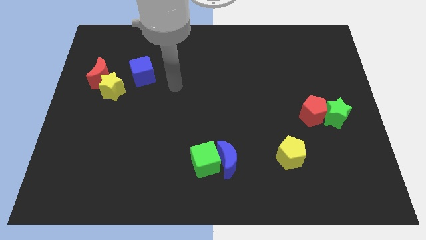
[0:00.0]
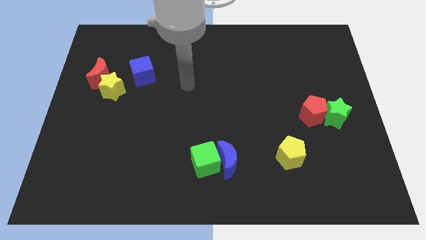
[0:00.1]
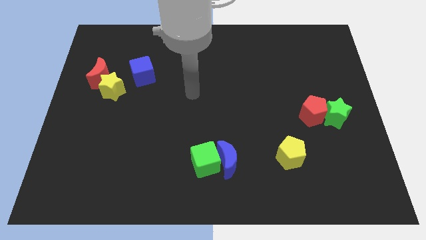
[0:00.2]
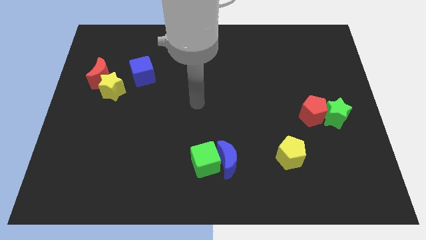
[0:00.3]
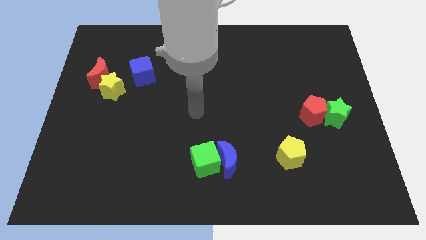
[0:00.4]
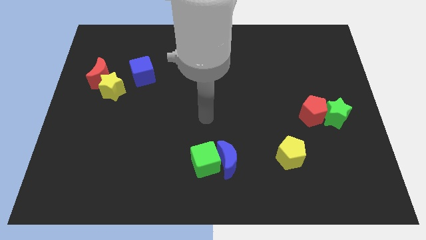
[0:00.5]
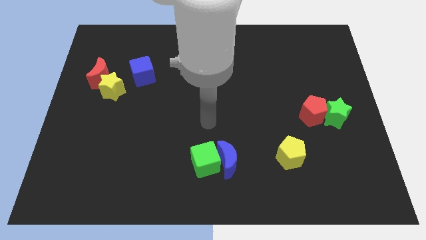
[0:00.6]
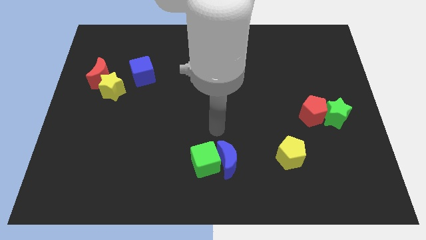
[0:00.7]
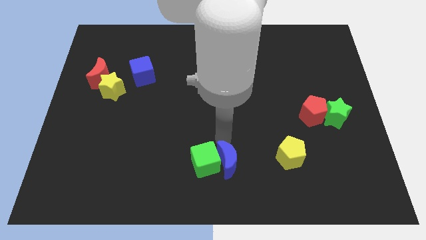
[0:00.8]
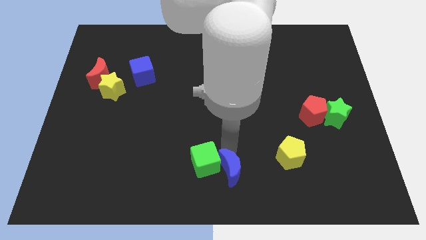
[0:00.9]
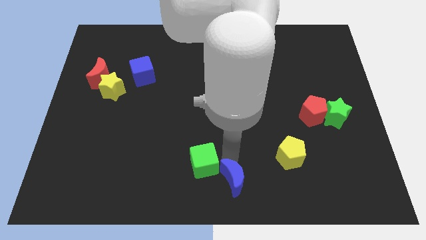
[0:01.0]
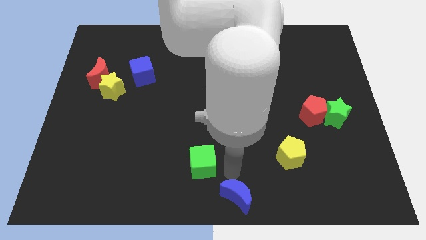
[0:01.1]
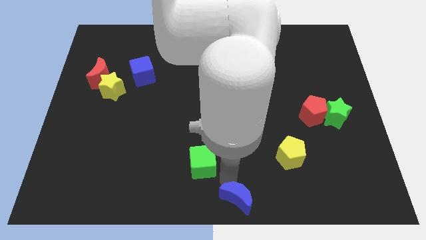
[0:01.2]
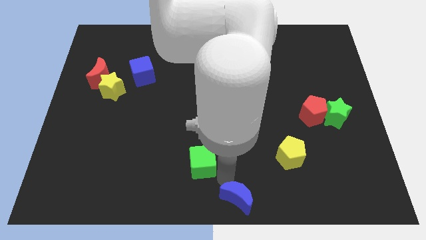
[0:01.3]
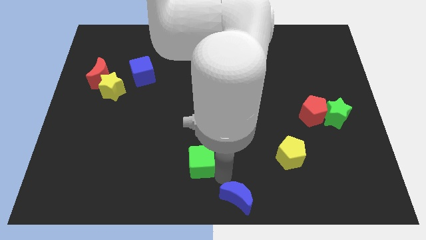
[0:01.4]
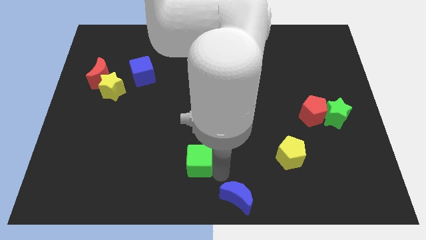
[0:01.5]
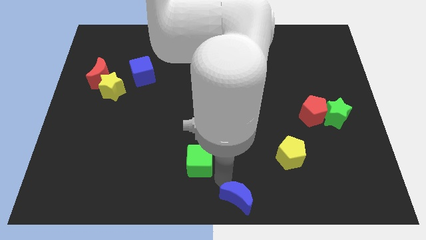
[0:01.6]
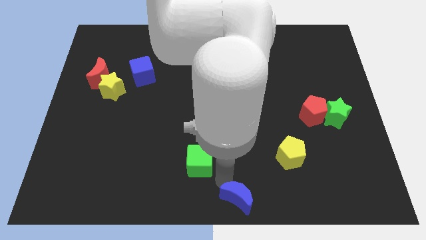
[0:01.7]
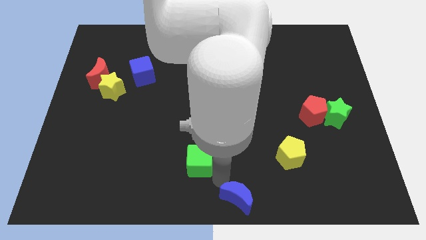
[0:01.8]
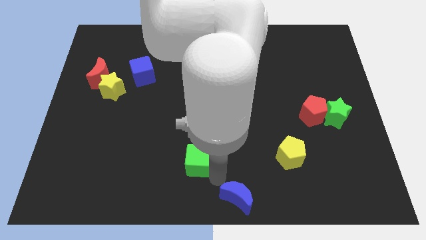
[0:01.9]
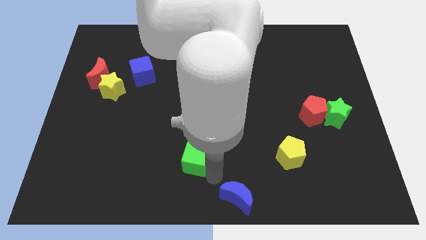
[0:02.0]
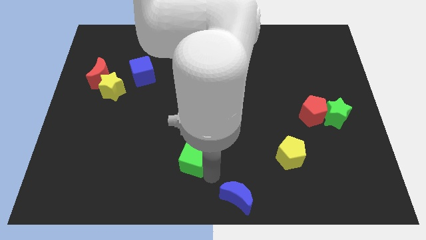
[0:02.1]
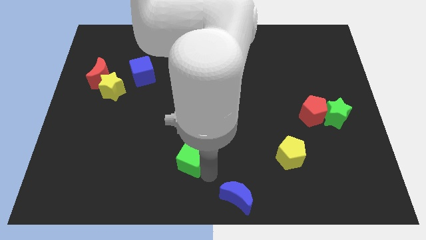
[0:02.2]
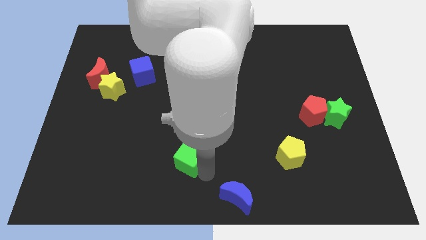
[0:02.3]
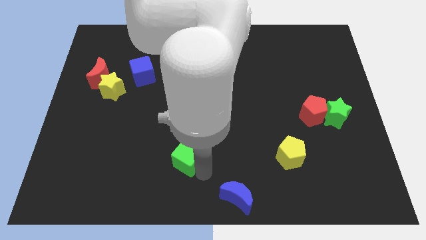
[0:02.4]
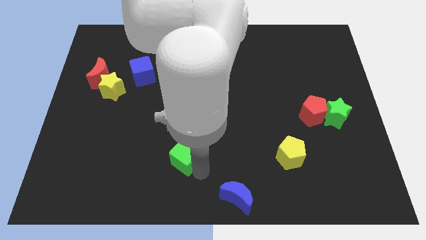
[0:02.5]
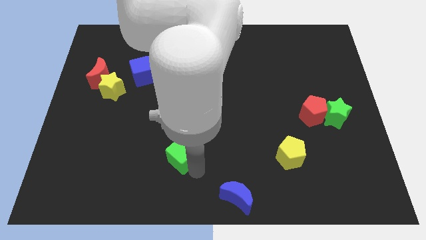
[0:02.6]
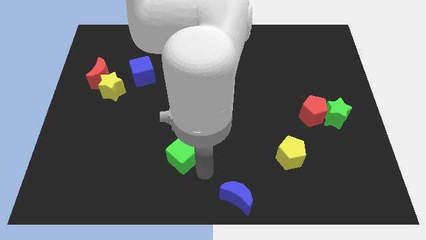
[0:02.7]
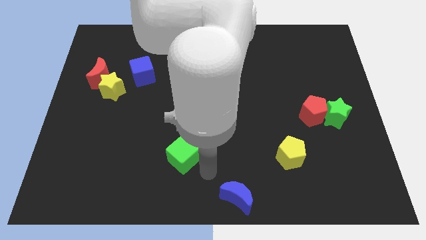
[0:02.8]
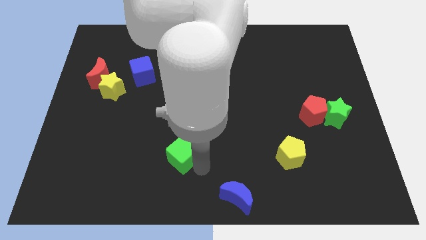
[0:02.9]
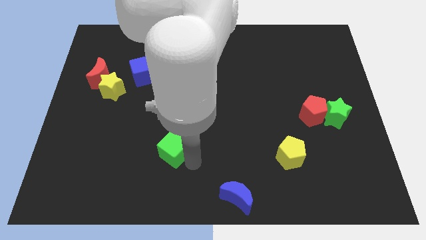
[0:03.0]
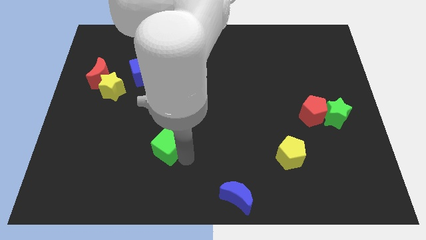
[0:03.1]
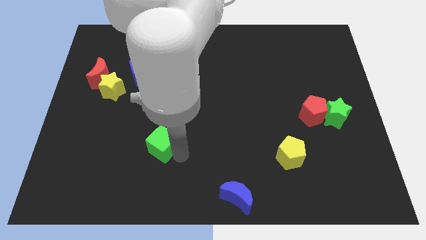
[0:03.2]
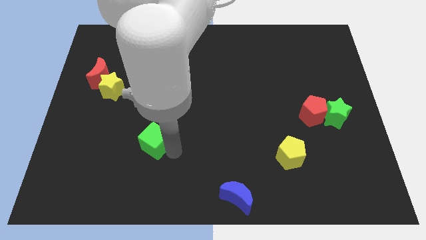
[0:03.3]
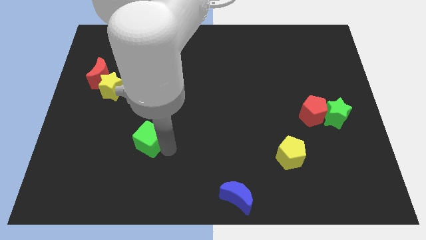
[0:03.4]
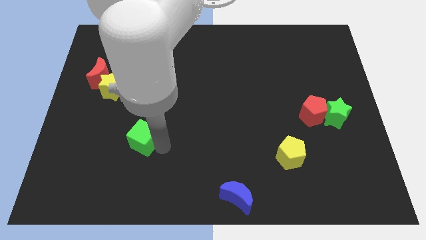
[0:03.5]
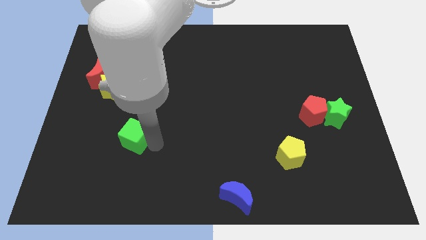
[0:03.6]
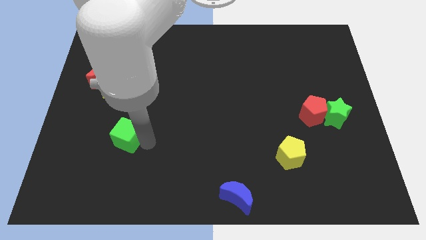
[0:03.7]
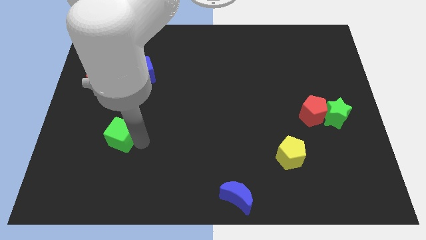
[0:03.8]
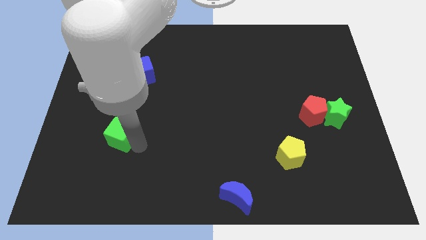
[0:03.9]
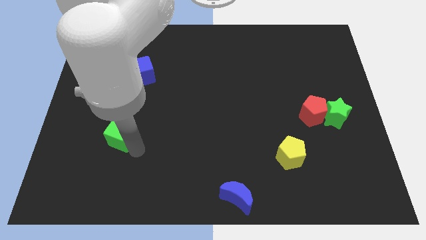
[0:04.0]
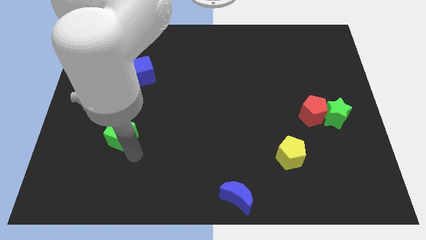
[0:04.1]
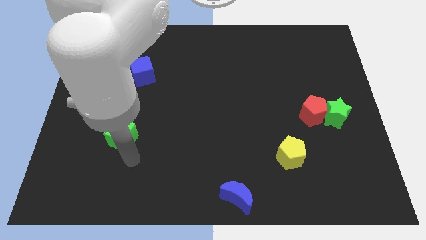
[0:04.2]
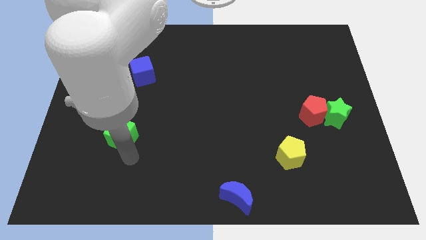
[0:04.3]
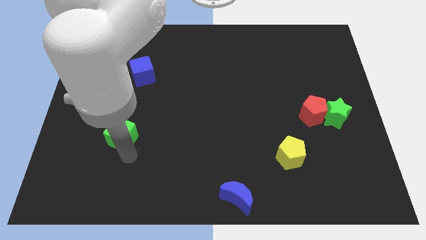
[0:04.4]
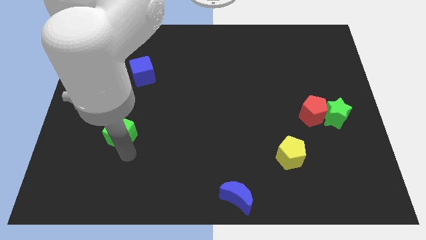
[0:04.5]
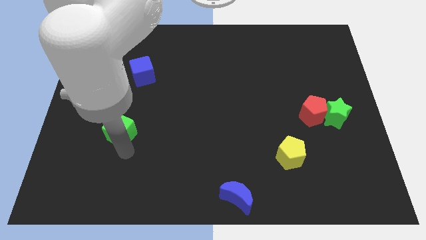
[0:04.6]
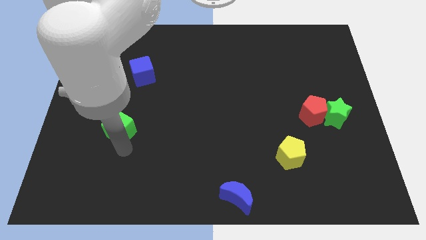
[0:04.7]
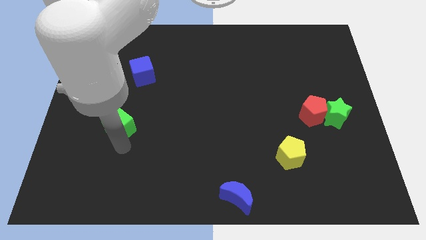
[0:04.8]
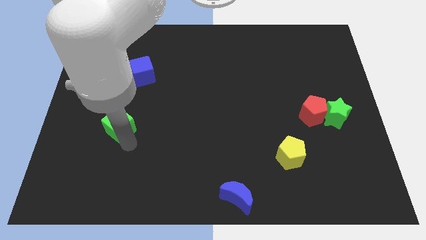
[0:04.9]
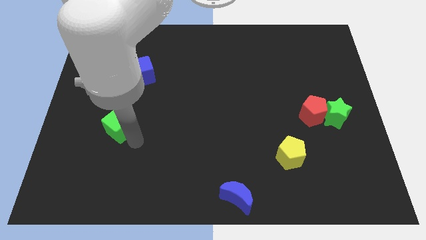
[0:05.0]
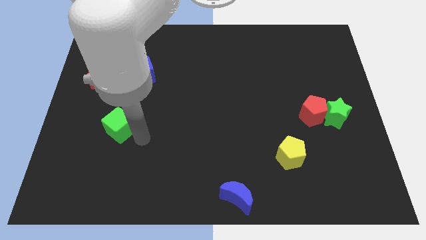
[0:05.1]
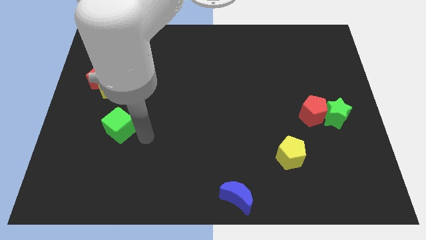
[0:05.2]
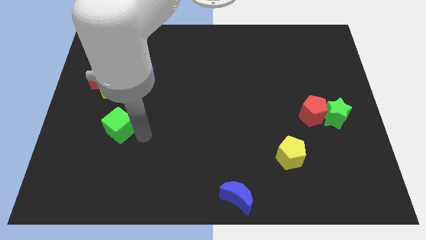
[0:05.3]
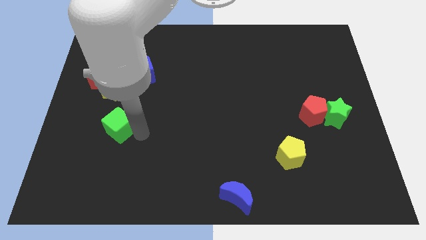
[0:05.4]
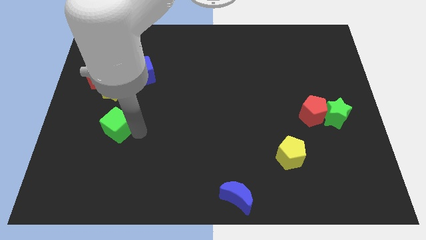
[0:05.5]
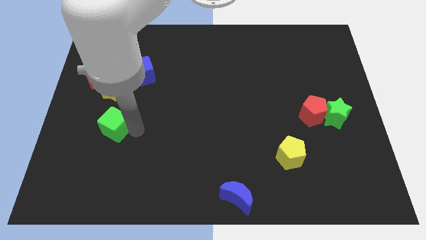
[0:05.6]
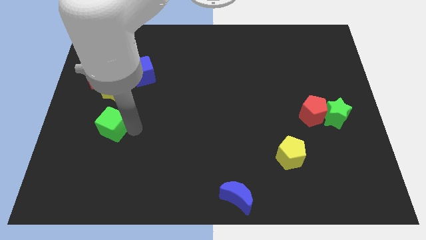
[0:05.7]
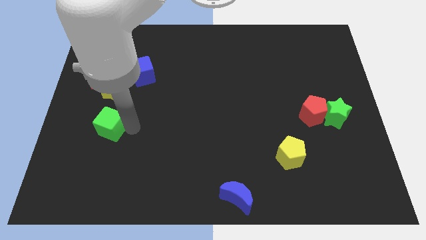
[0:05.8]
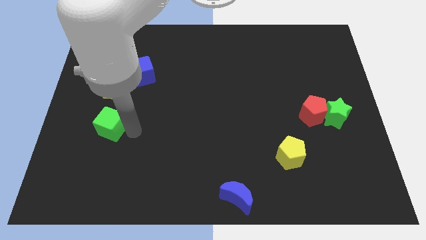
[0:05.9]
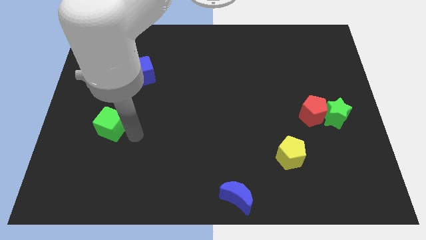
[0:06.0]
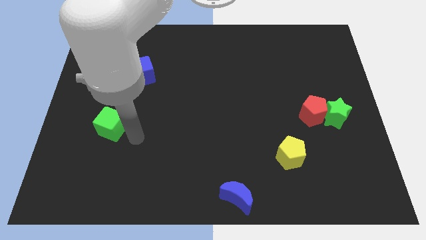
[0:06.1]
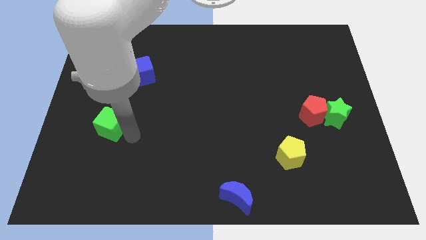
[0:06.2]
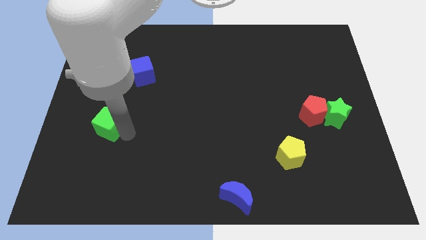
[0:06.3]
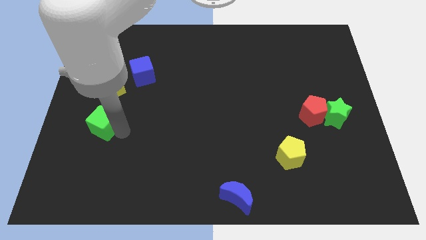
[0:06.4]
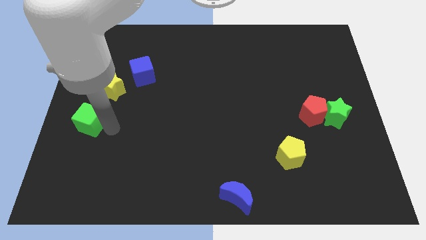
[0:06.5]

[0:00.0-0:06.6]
slide the green cube to the left side of the board
